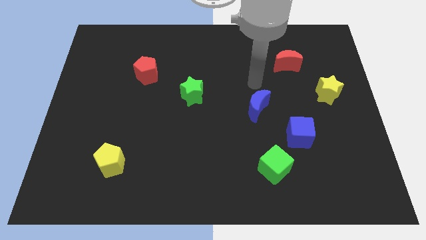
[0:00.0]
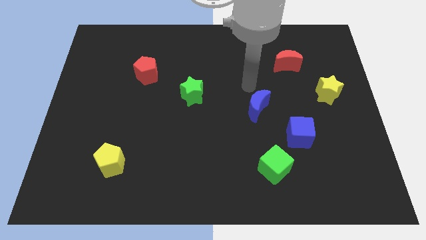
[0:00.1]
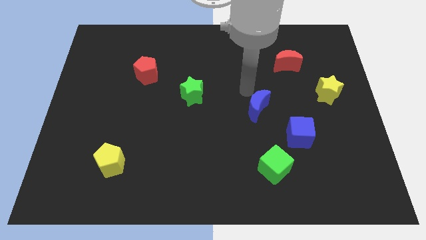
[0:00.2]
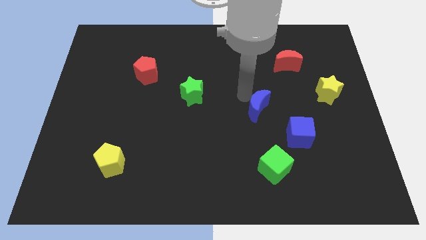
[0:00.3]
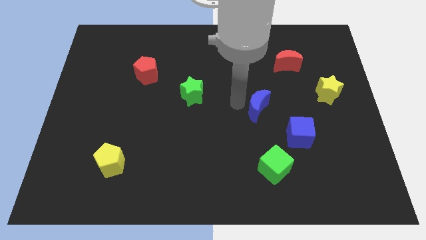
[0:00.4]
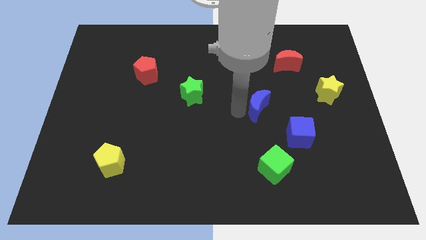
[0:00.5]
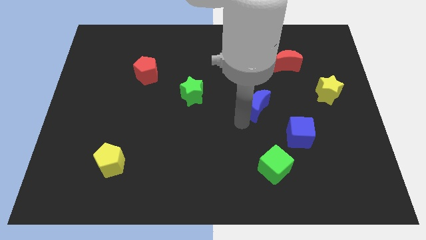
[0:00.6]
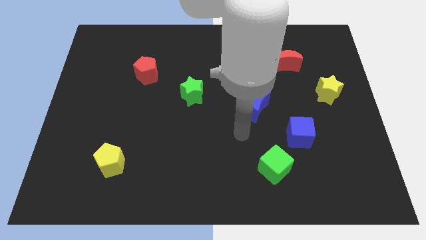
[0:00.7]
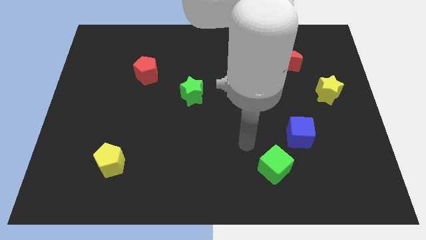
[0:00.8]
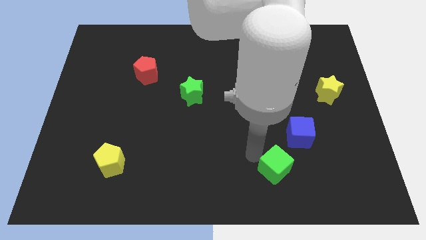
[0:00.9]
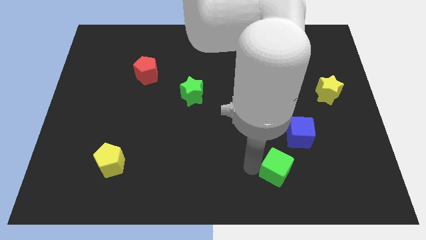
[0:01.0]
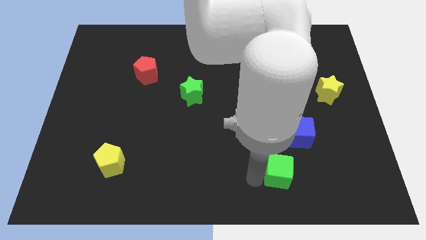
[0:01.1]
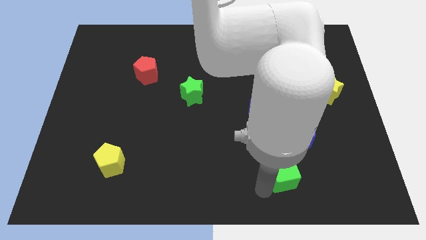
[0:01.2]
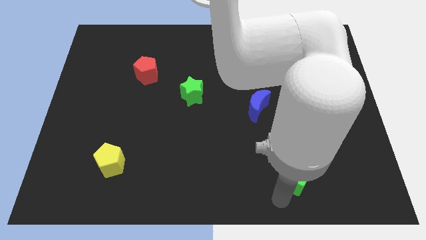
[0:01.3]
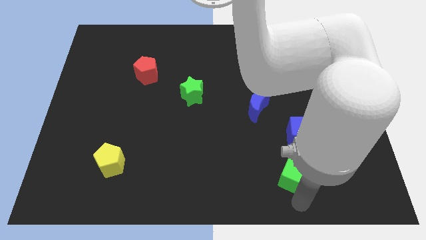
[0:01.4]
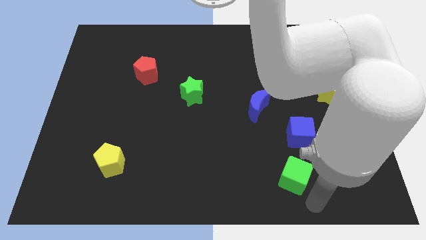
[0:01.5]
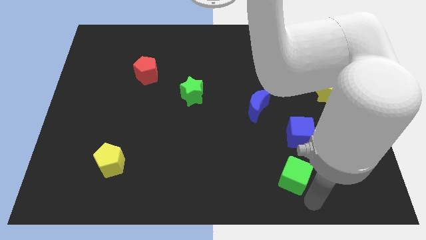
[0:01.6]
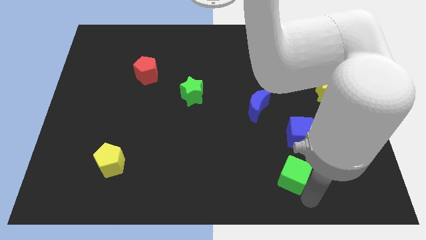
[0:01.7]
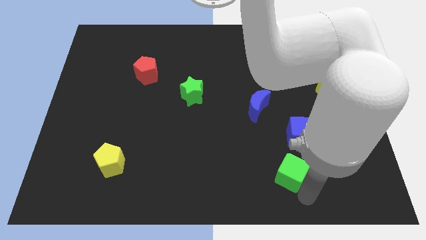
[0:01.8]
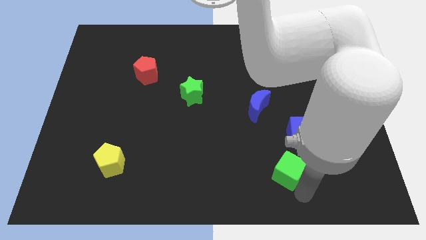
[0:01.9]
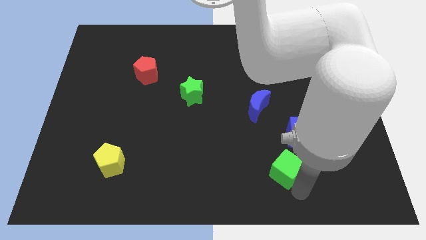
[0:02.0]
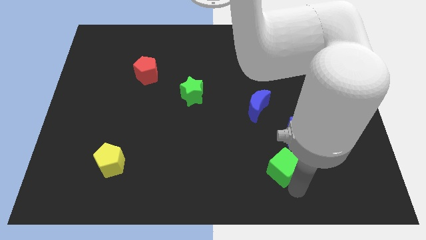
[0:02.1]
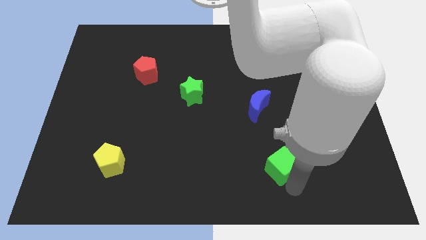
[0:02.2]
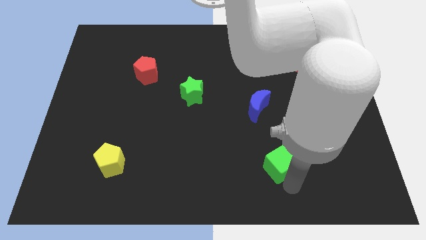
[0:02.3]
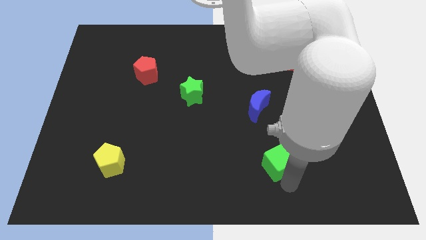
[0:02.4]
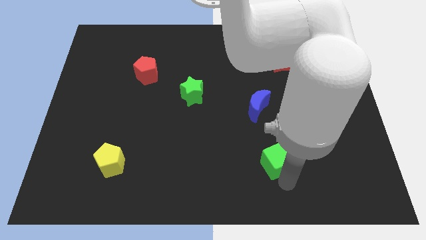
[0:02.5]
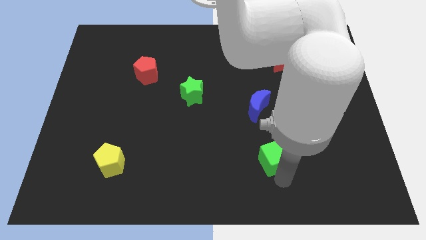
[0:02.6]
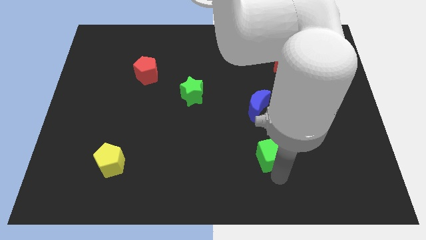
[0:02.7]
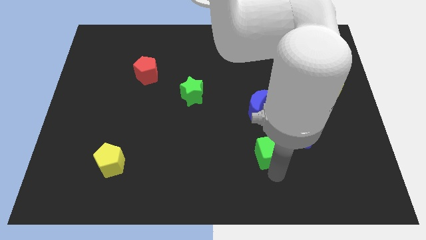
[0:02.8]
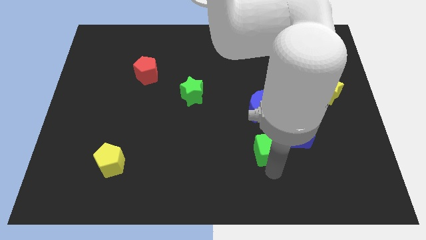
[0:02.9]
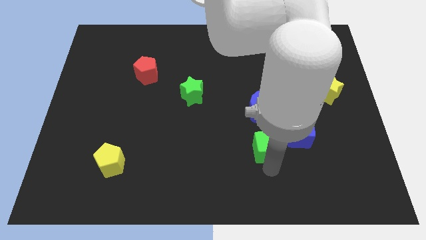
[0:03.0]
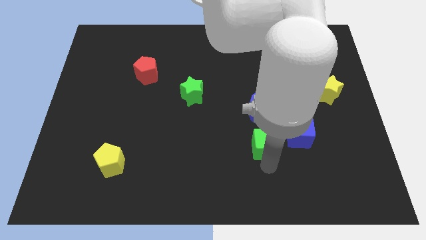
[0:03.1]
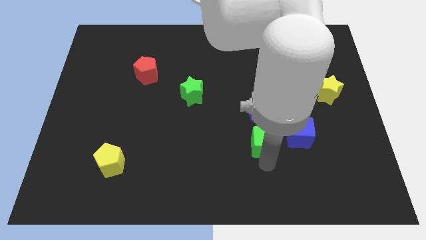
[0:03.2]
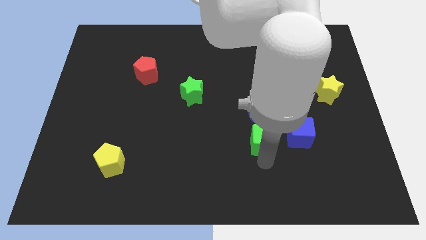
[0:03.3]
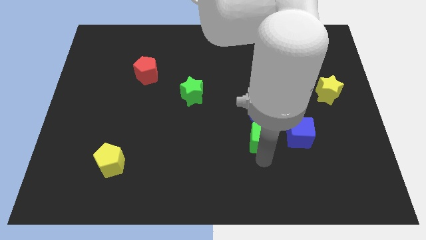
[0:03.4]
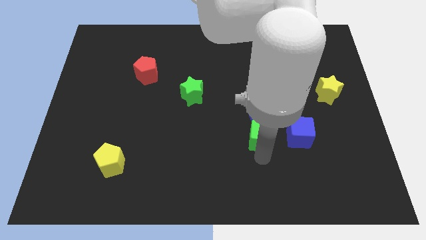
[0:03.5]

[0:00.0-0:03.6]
push the green cube up a bit

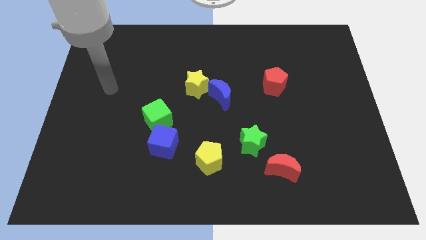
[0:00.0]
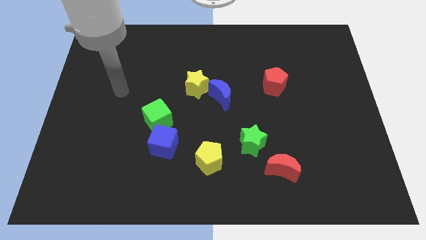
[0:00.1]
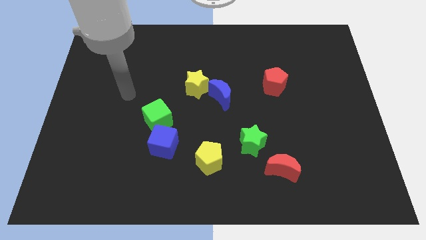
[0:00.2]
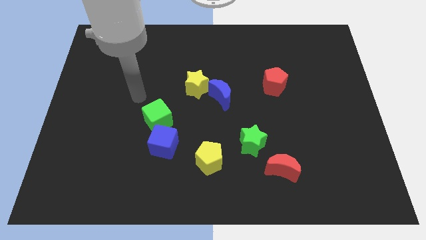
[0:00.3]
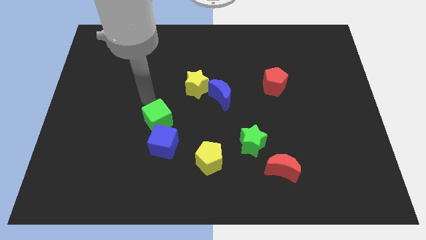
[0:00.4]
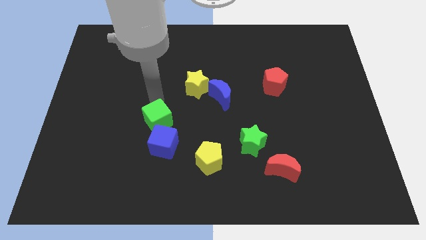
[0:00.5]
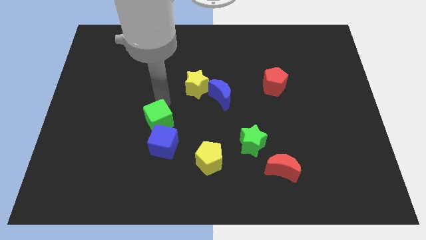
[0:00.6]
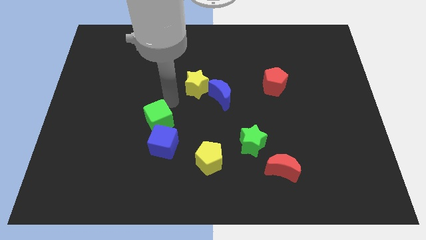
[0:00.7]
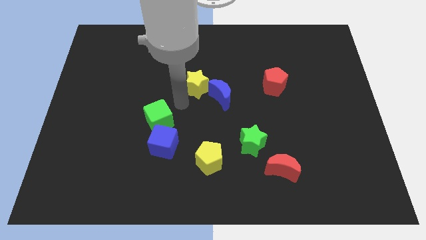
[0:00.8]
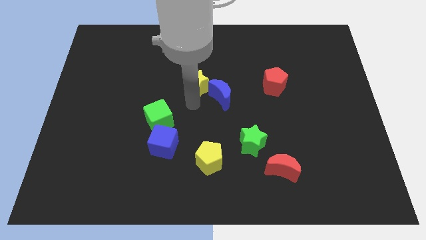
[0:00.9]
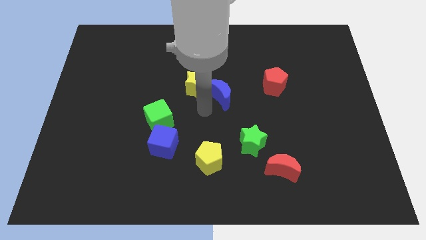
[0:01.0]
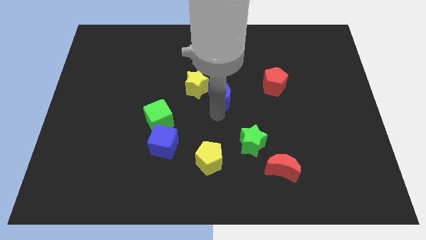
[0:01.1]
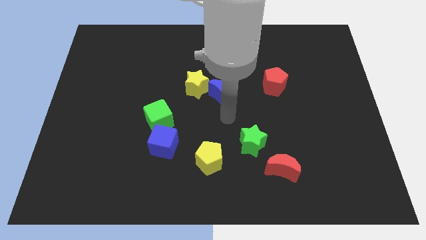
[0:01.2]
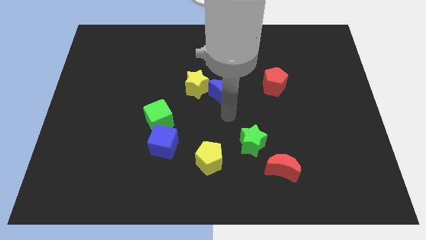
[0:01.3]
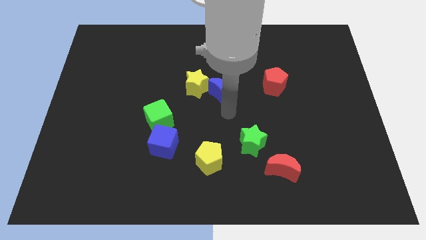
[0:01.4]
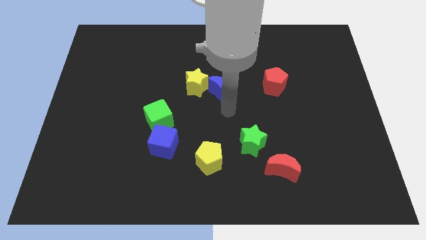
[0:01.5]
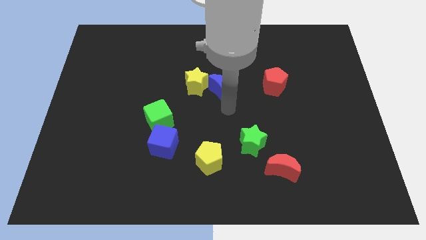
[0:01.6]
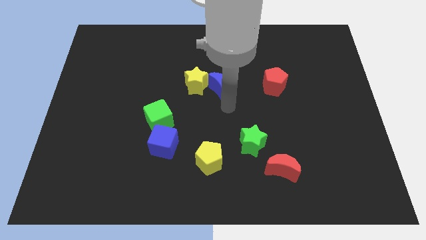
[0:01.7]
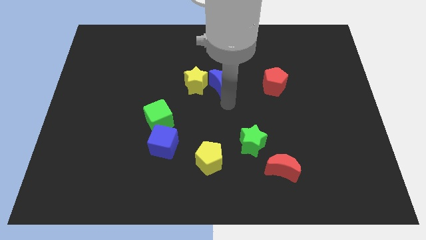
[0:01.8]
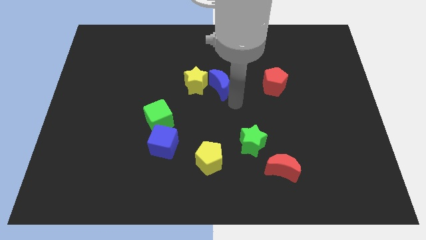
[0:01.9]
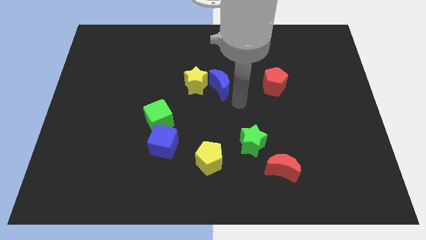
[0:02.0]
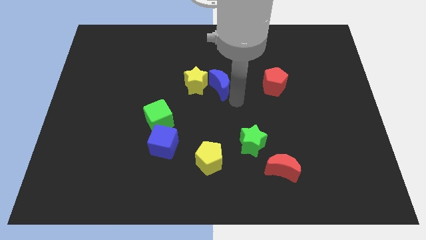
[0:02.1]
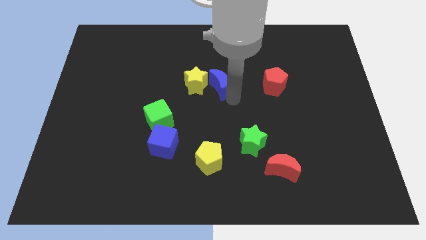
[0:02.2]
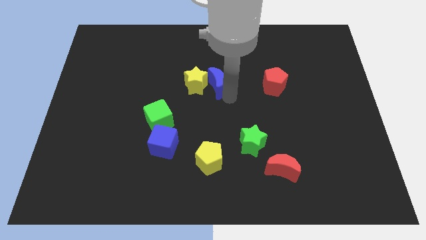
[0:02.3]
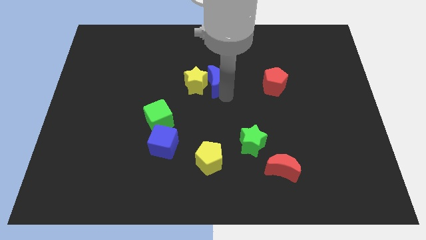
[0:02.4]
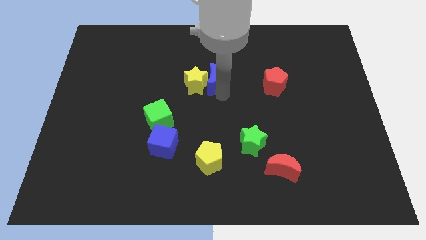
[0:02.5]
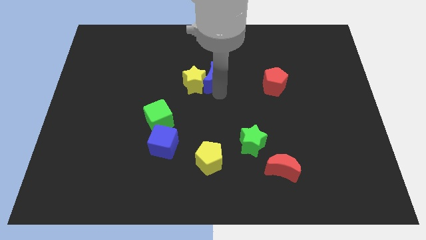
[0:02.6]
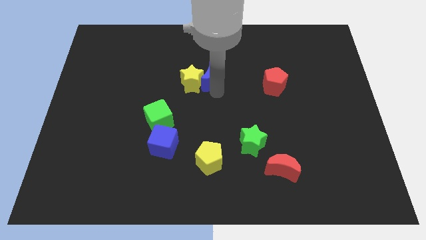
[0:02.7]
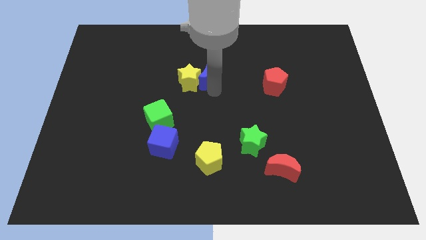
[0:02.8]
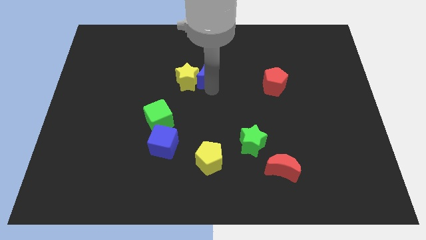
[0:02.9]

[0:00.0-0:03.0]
move the blue moon upwards and to the left a little

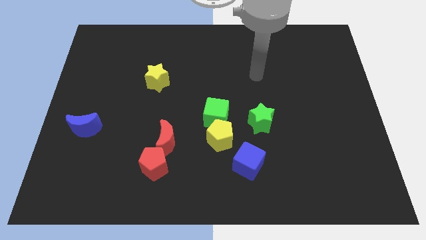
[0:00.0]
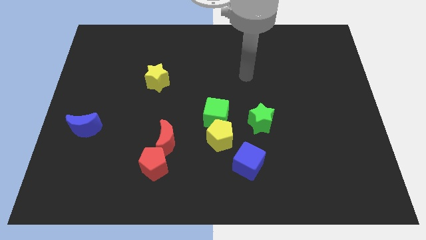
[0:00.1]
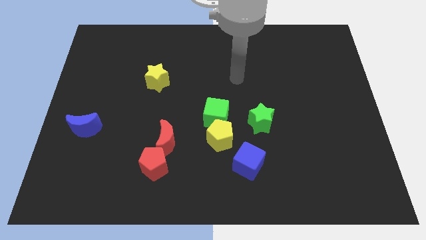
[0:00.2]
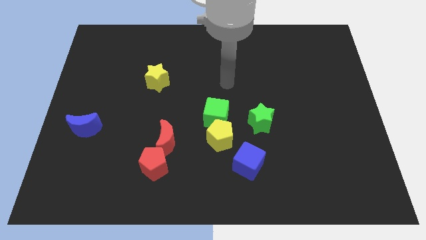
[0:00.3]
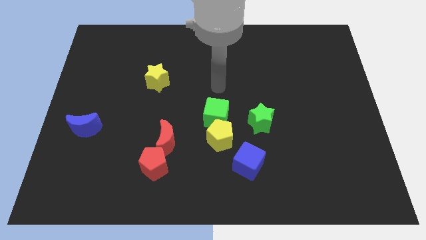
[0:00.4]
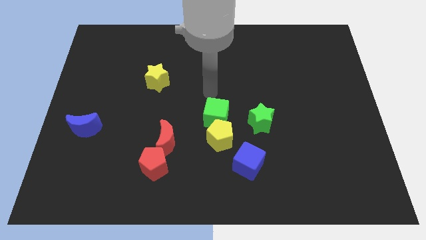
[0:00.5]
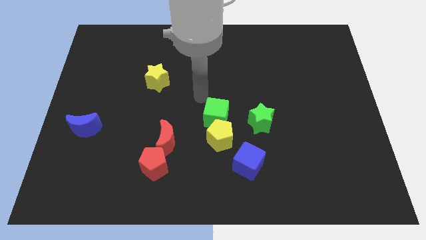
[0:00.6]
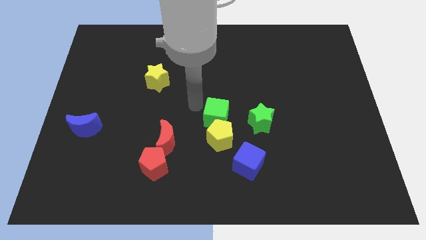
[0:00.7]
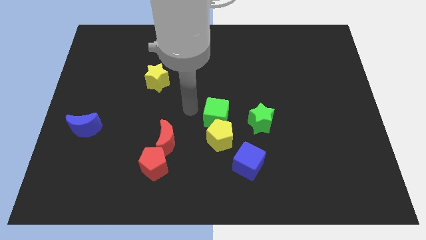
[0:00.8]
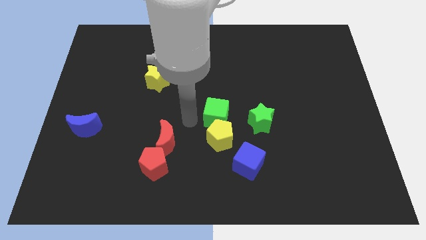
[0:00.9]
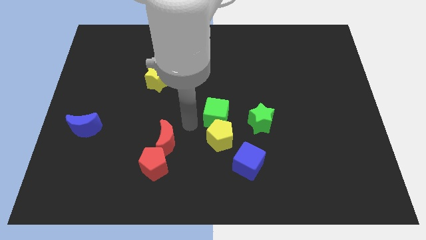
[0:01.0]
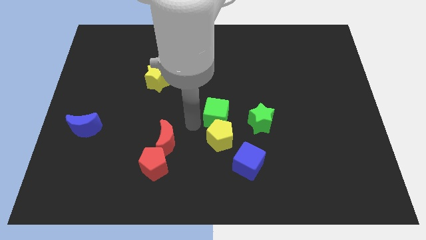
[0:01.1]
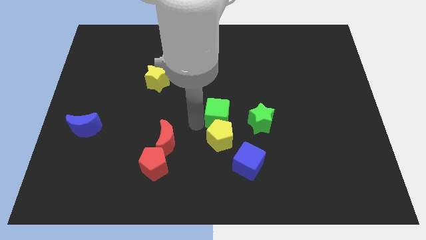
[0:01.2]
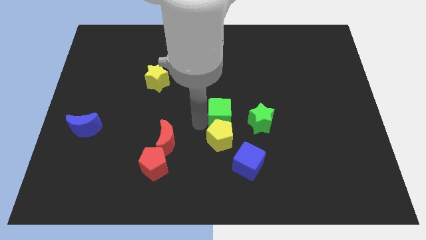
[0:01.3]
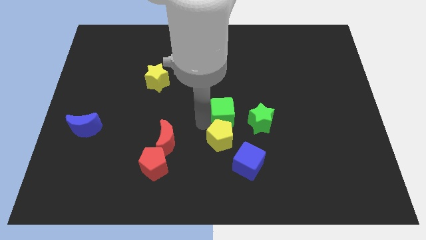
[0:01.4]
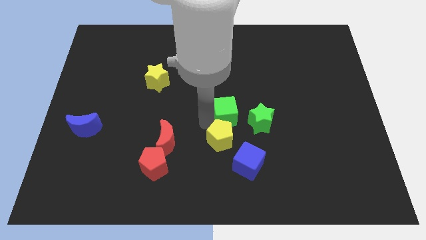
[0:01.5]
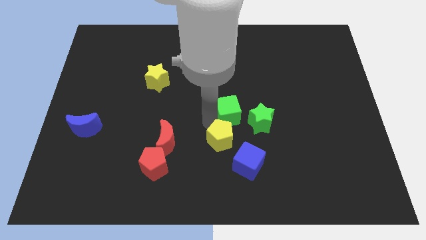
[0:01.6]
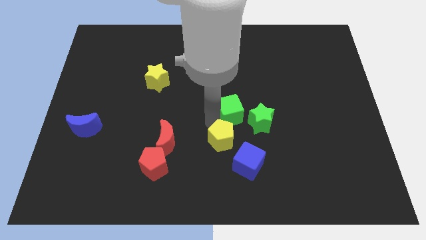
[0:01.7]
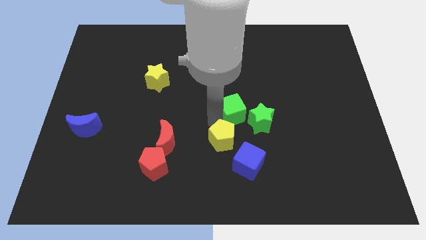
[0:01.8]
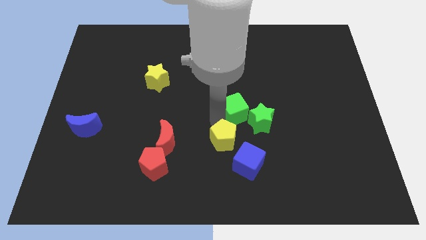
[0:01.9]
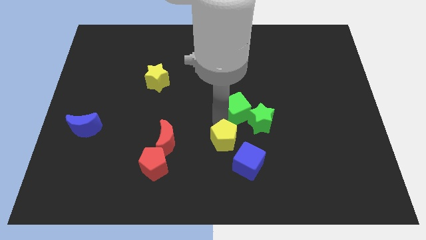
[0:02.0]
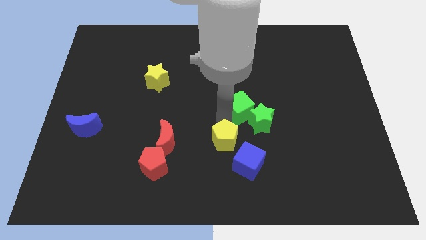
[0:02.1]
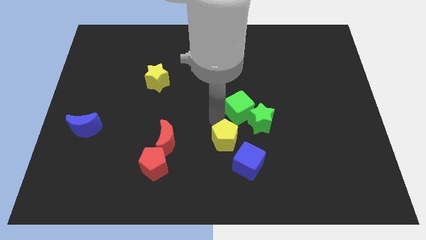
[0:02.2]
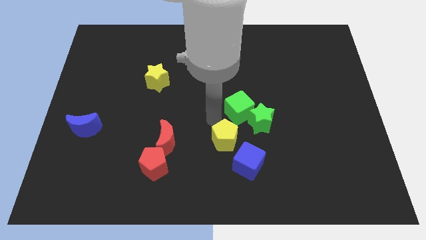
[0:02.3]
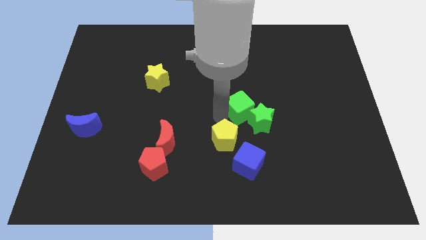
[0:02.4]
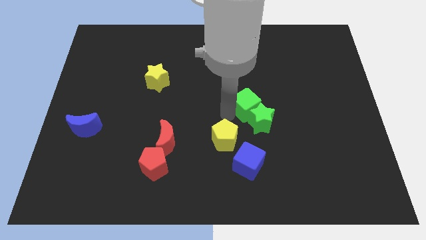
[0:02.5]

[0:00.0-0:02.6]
move the green cube a little bit to the right
